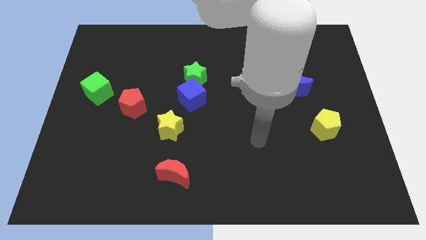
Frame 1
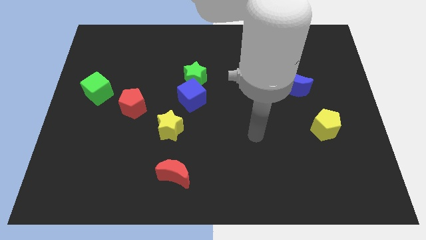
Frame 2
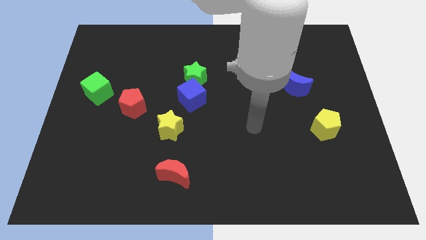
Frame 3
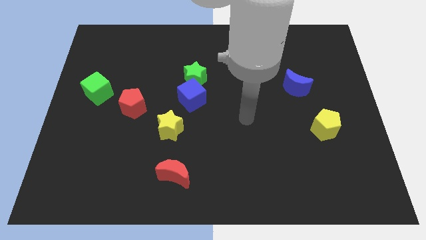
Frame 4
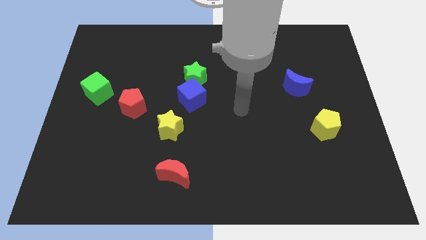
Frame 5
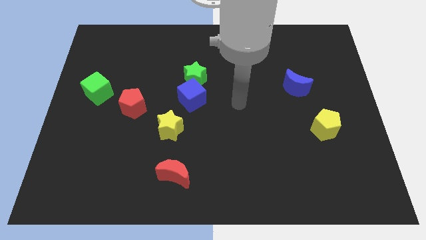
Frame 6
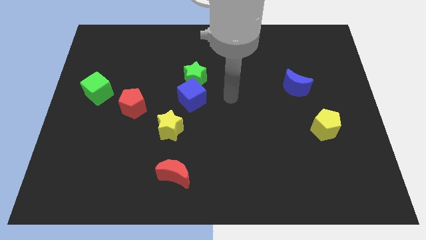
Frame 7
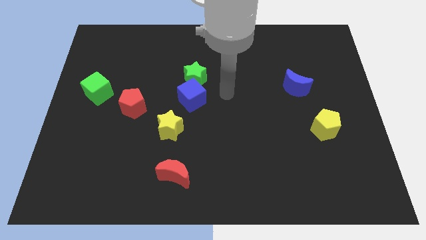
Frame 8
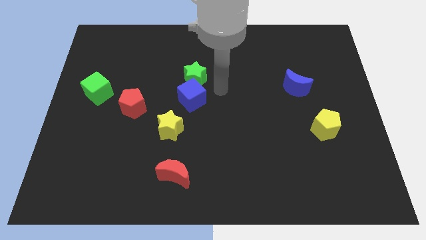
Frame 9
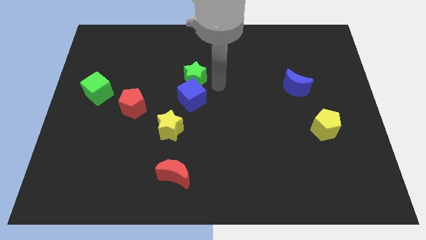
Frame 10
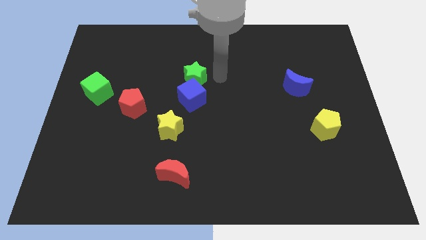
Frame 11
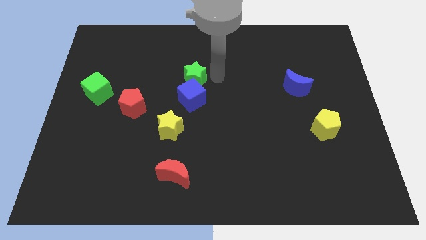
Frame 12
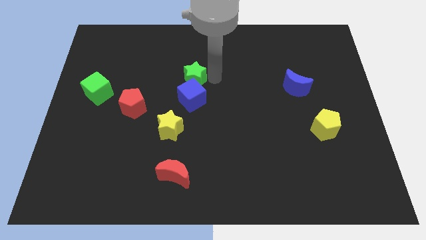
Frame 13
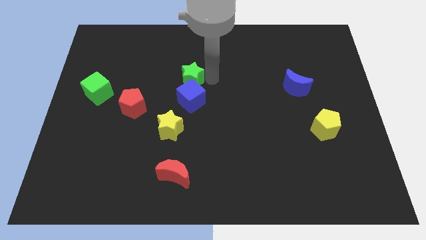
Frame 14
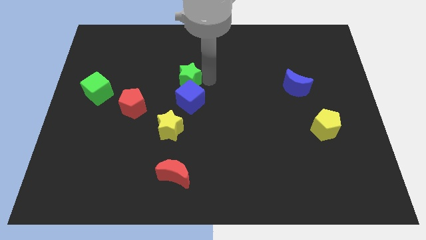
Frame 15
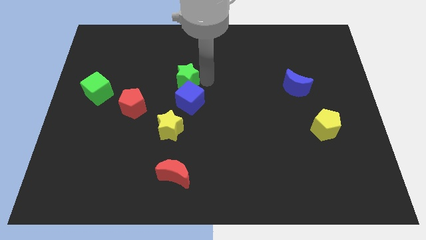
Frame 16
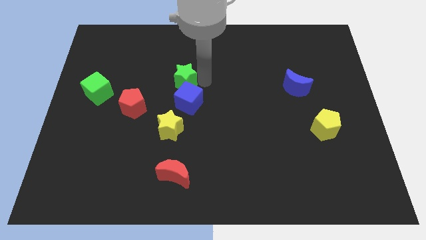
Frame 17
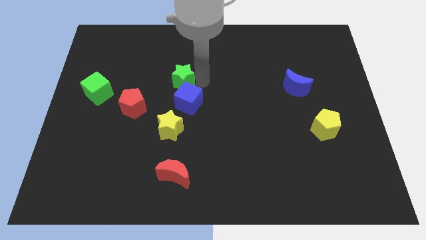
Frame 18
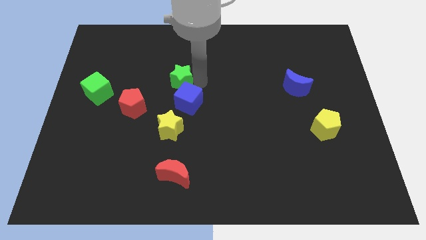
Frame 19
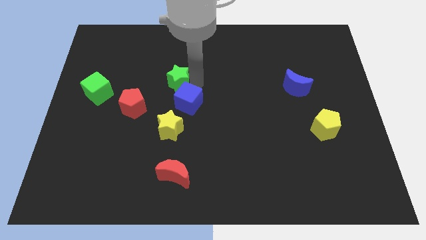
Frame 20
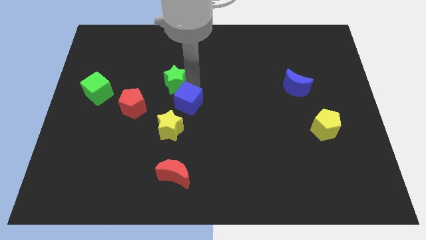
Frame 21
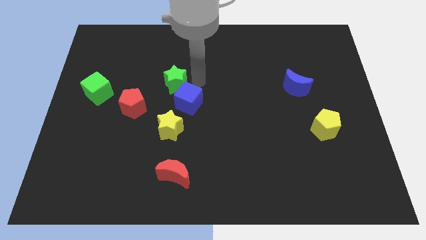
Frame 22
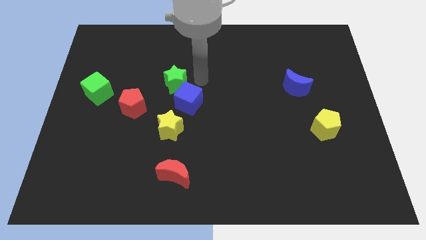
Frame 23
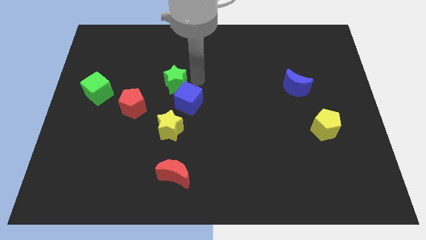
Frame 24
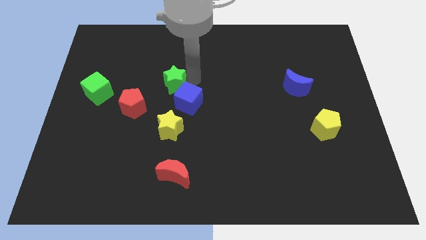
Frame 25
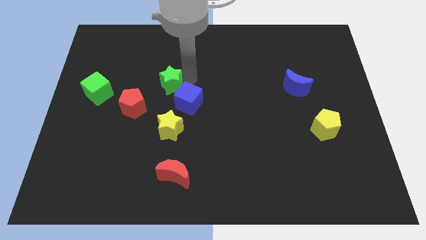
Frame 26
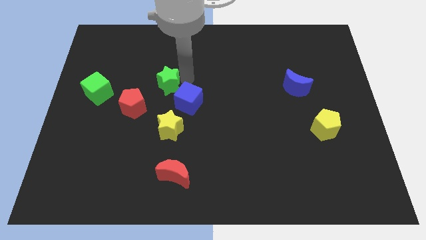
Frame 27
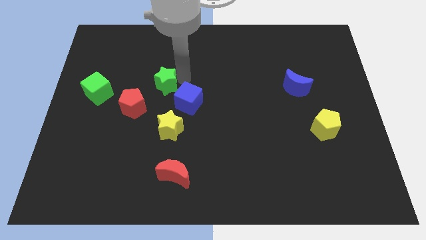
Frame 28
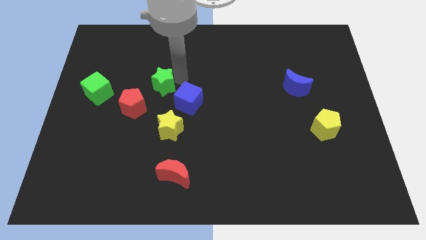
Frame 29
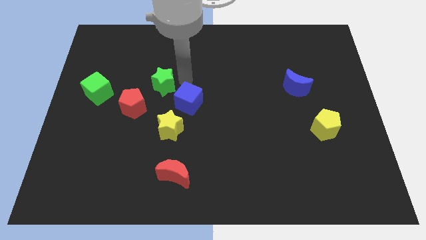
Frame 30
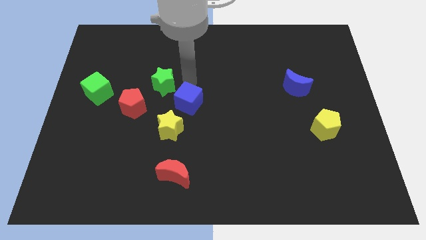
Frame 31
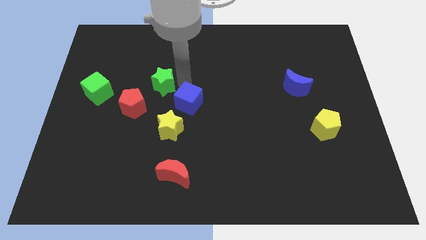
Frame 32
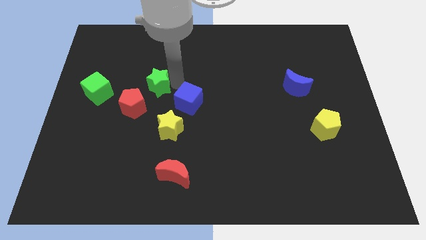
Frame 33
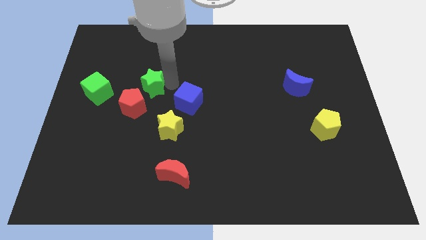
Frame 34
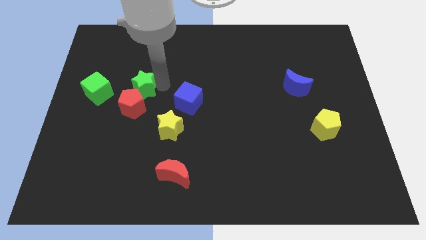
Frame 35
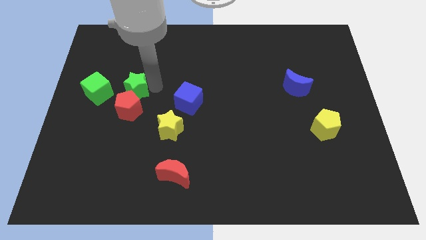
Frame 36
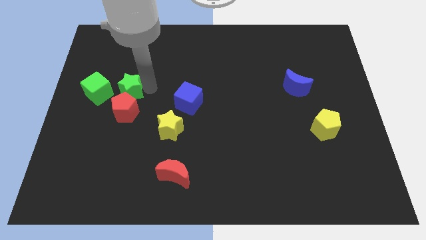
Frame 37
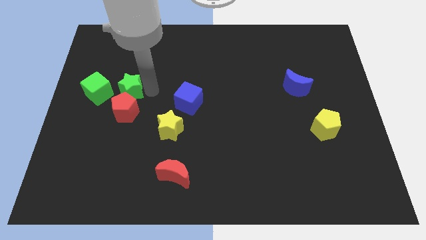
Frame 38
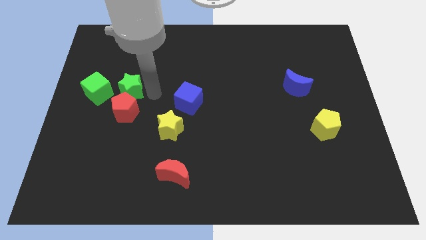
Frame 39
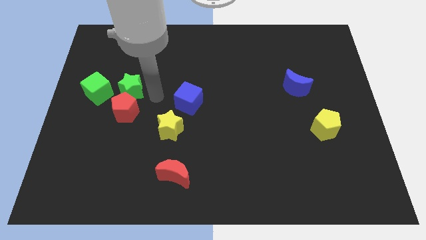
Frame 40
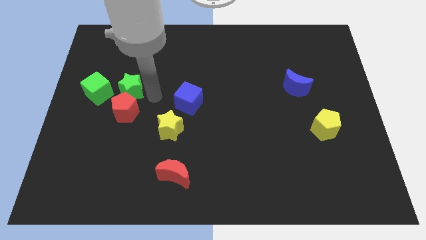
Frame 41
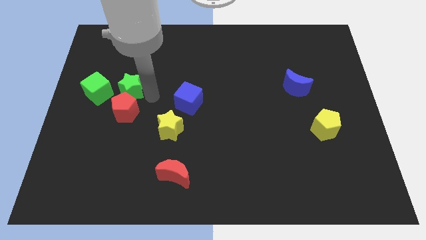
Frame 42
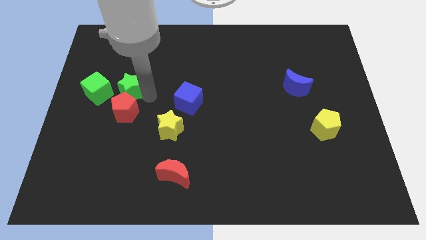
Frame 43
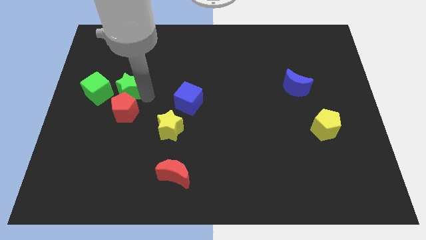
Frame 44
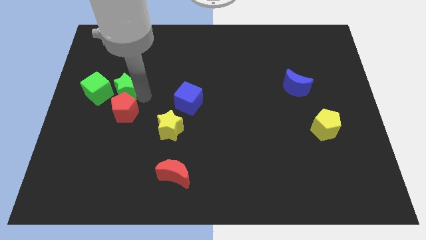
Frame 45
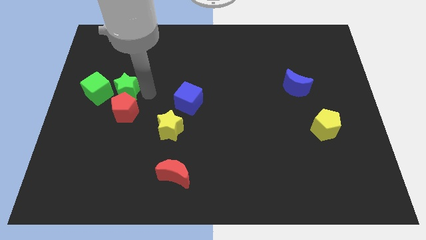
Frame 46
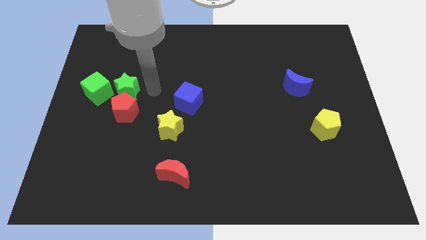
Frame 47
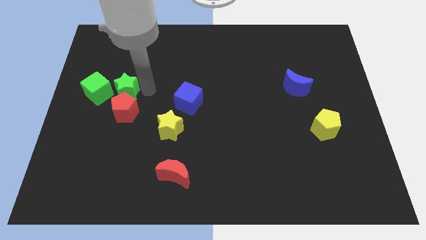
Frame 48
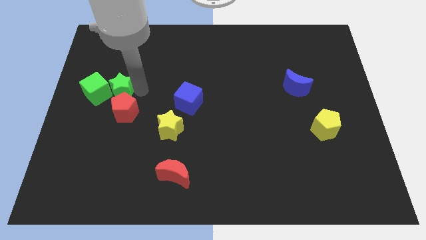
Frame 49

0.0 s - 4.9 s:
push the green star towards the green cube

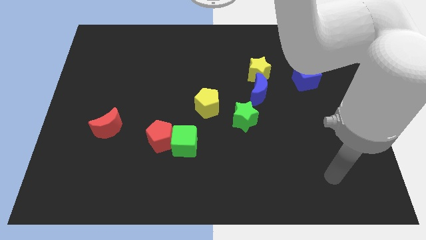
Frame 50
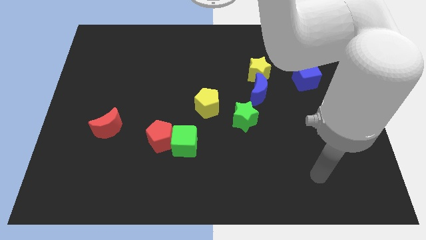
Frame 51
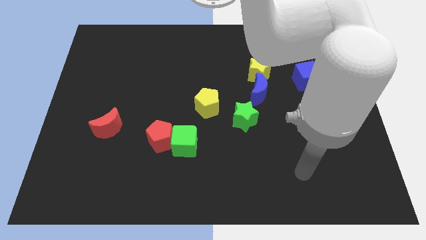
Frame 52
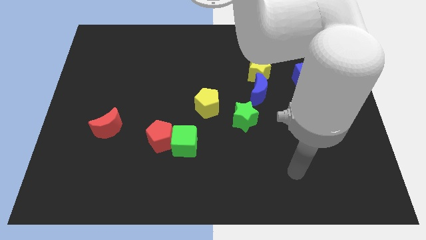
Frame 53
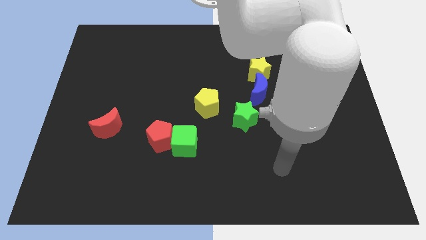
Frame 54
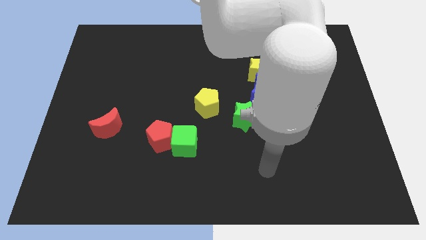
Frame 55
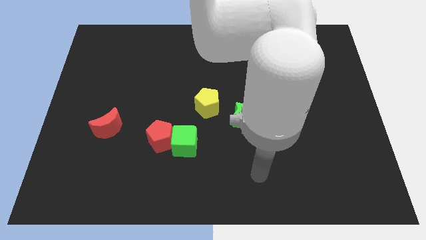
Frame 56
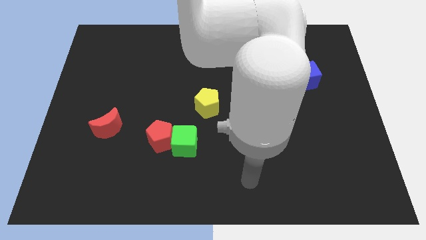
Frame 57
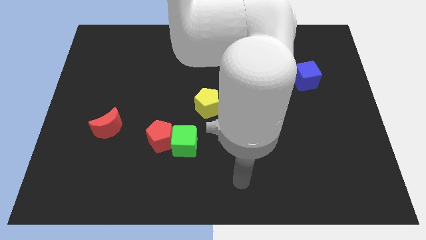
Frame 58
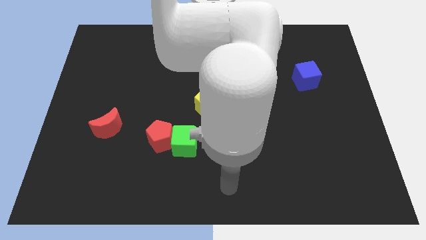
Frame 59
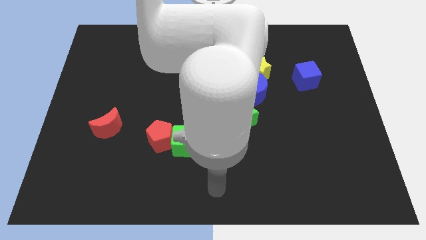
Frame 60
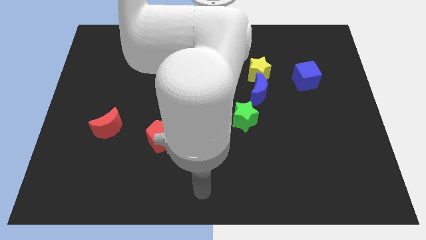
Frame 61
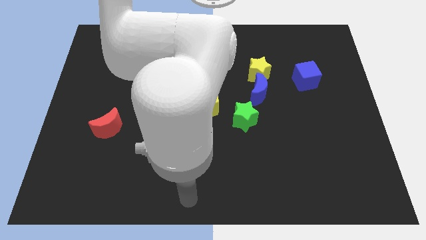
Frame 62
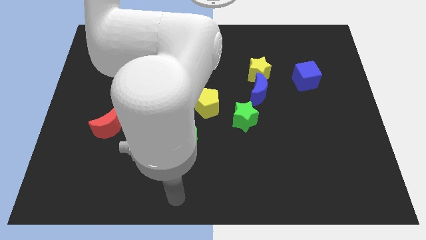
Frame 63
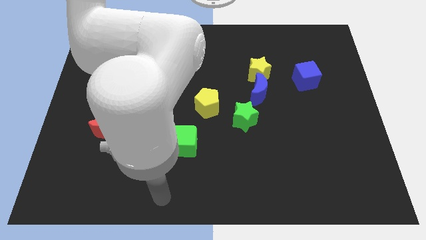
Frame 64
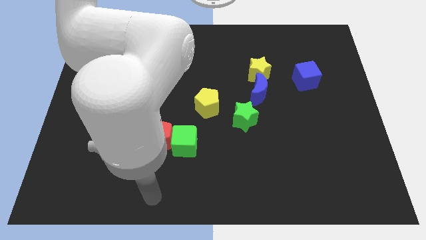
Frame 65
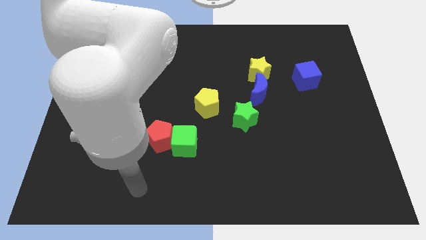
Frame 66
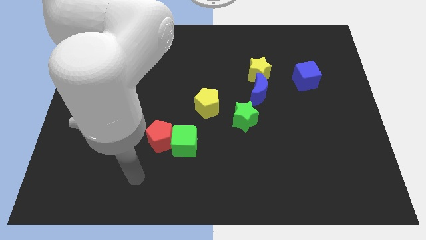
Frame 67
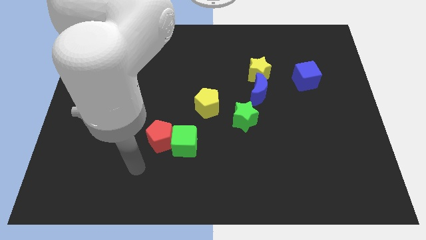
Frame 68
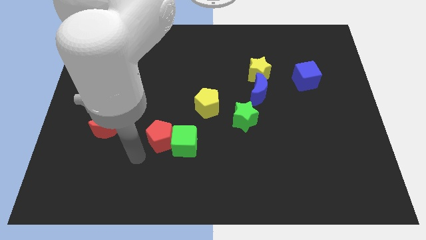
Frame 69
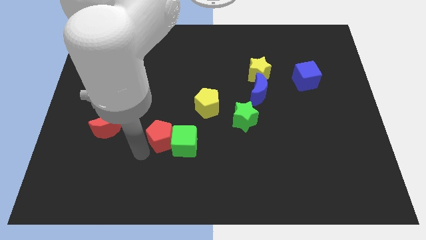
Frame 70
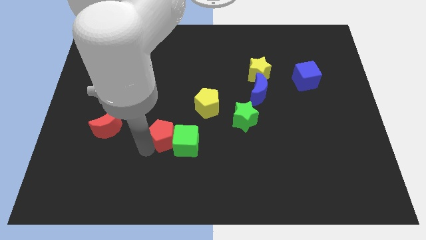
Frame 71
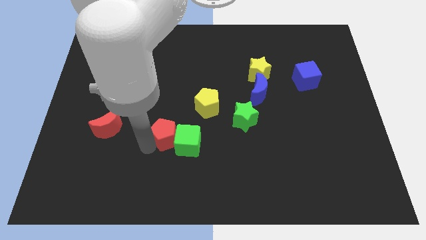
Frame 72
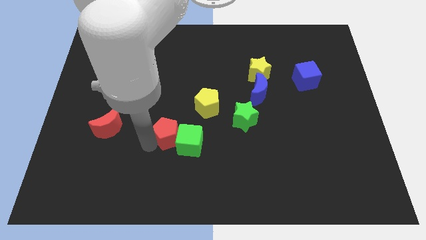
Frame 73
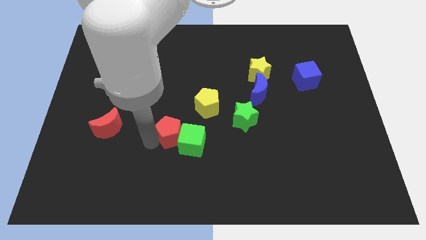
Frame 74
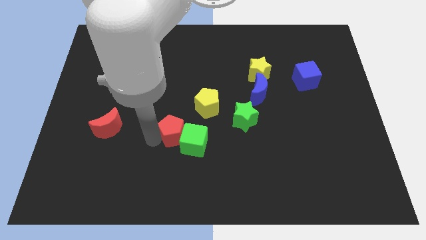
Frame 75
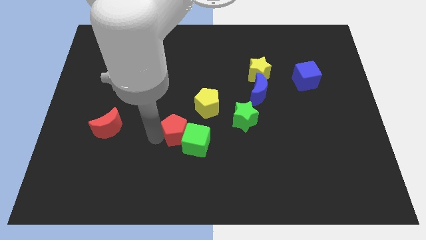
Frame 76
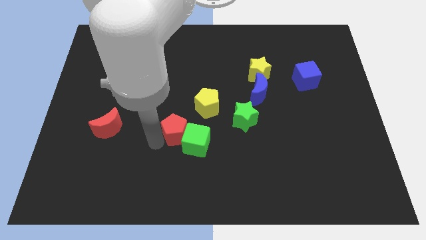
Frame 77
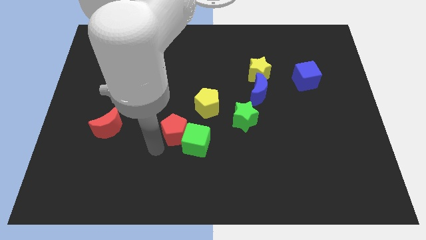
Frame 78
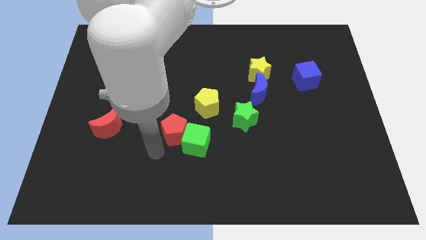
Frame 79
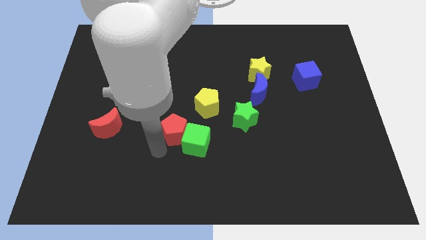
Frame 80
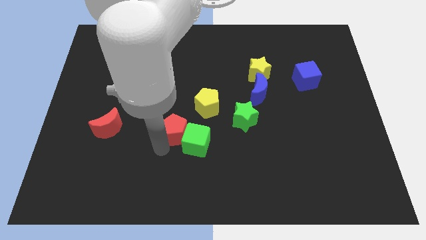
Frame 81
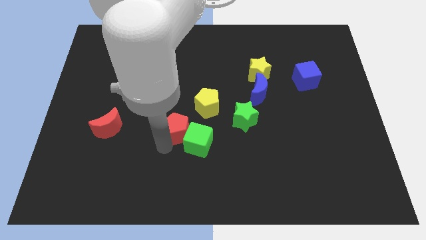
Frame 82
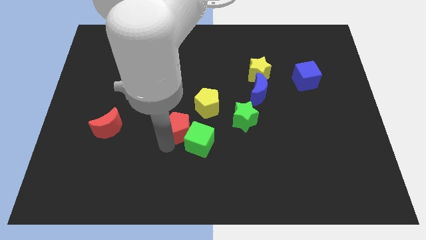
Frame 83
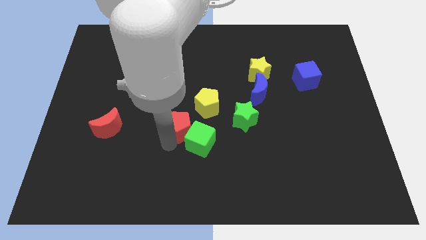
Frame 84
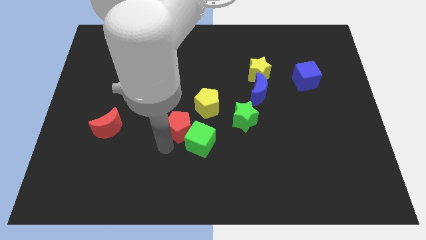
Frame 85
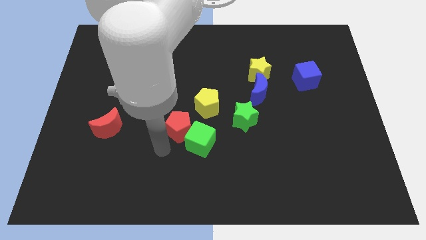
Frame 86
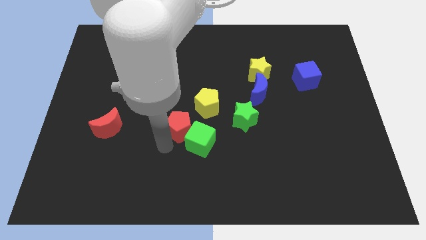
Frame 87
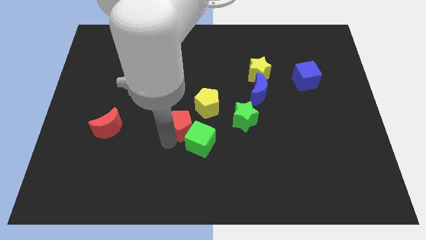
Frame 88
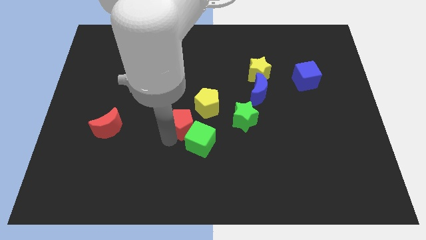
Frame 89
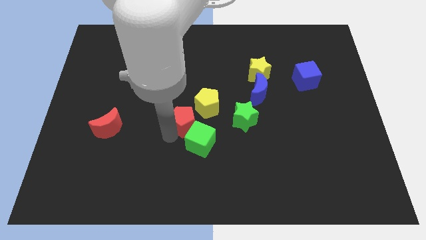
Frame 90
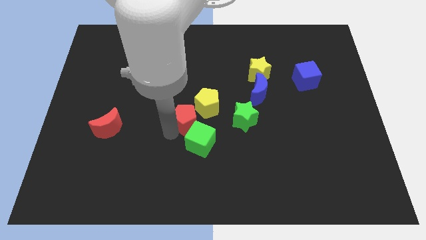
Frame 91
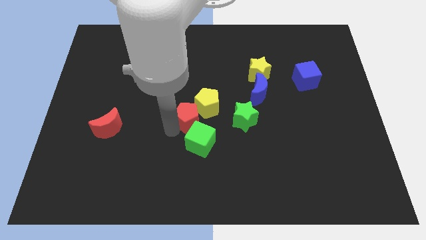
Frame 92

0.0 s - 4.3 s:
slide the red pentagon towards the yellow pentagon
